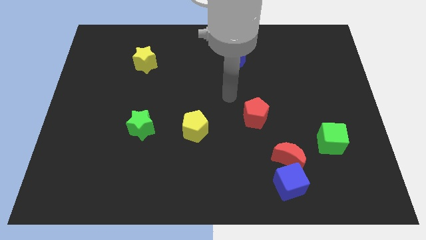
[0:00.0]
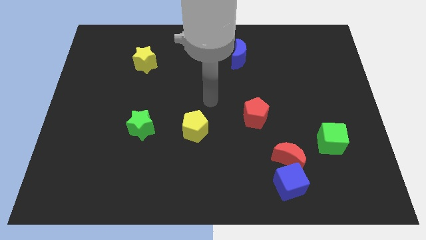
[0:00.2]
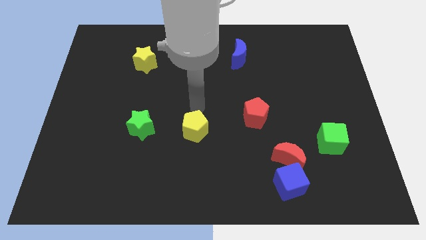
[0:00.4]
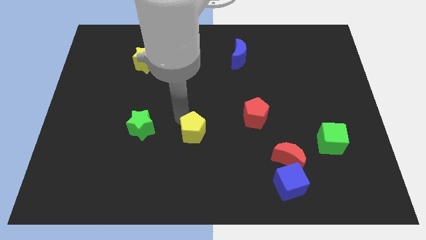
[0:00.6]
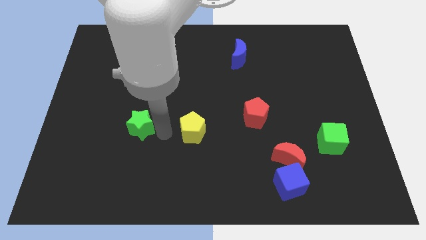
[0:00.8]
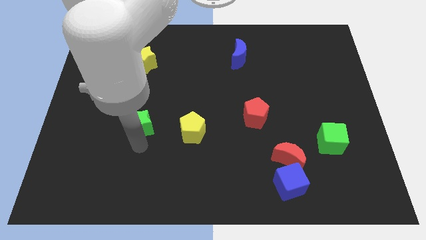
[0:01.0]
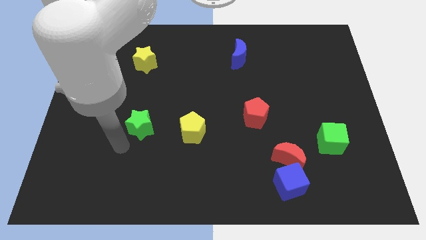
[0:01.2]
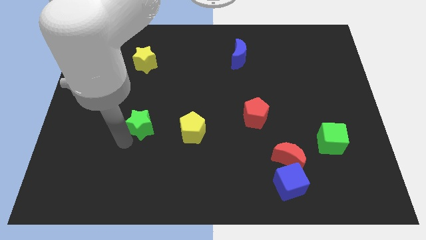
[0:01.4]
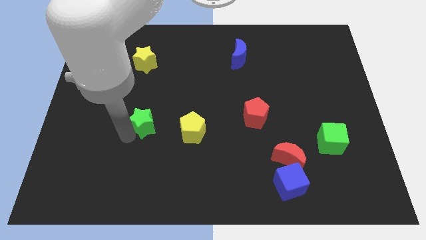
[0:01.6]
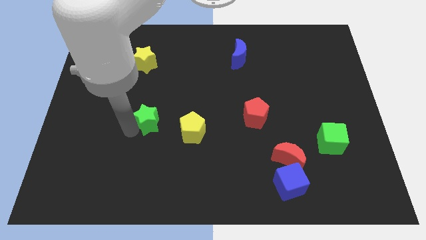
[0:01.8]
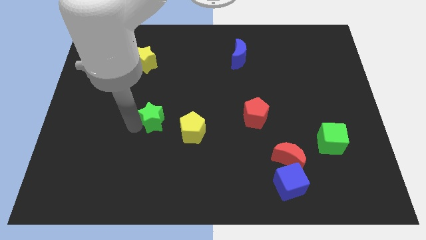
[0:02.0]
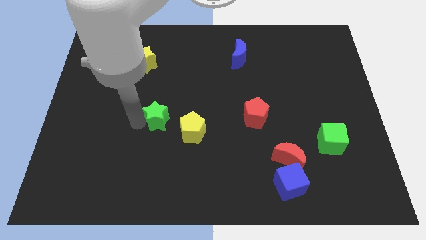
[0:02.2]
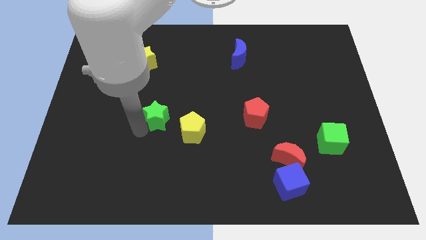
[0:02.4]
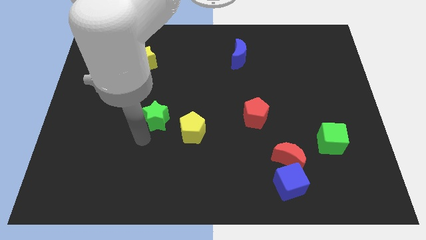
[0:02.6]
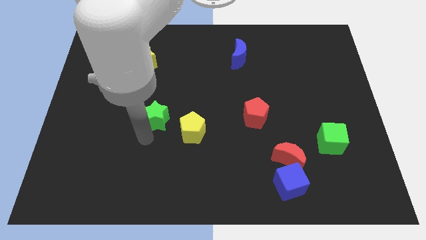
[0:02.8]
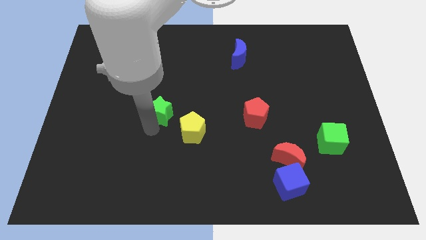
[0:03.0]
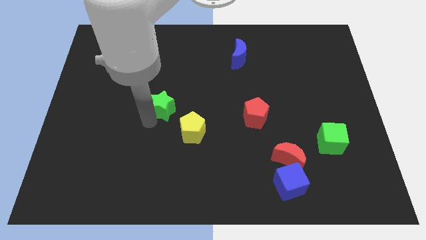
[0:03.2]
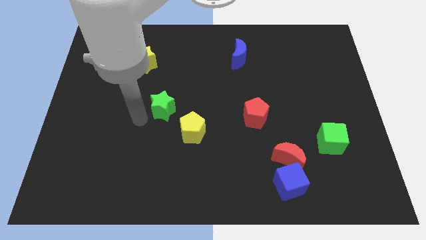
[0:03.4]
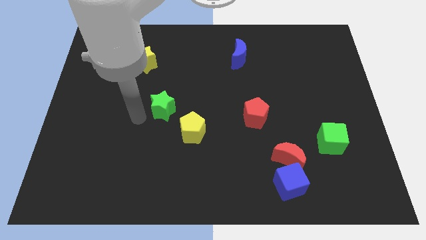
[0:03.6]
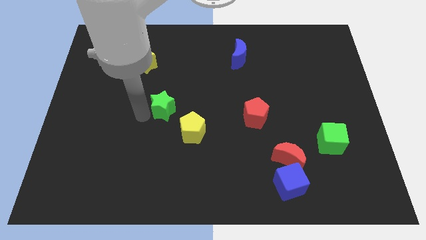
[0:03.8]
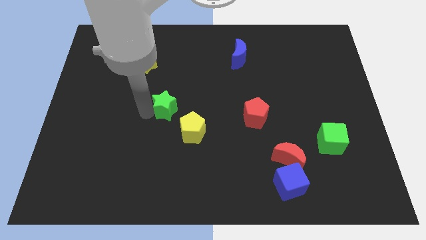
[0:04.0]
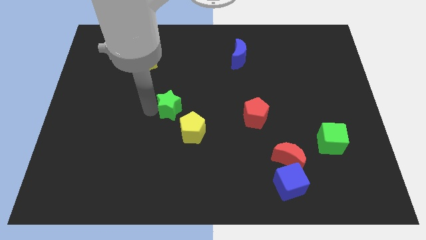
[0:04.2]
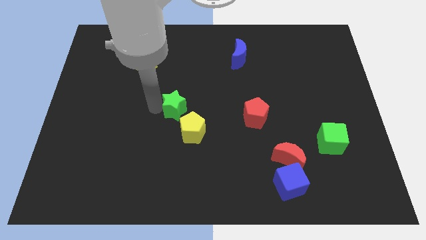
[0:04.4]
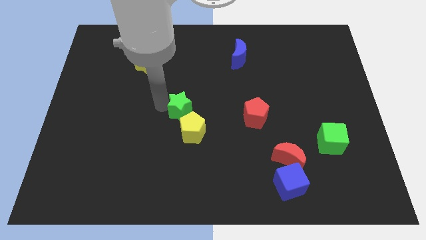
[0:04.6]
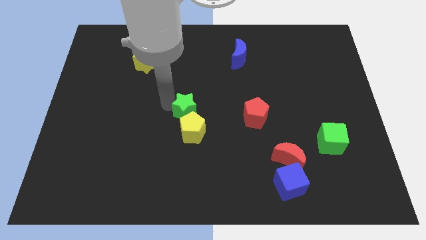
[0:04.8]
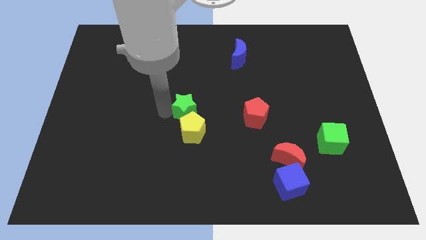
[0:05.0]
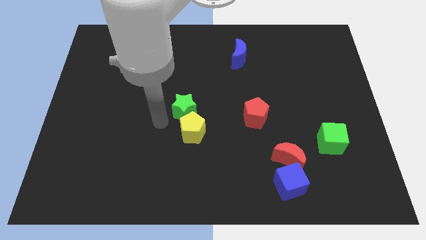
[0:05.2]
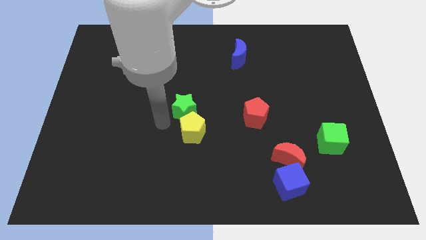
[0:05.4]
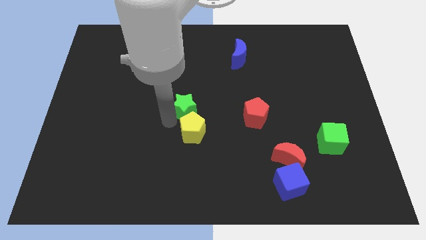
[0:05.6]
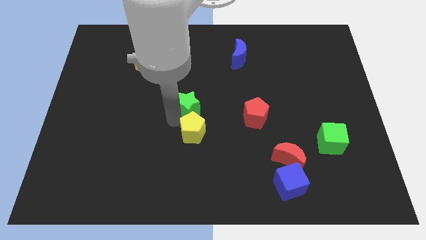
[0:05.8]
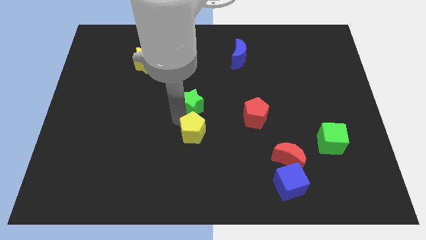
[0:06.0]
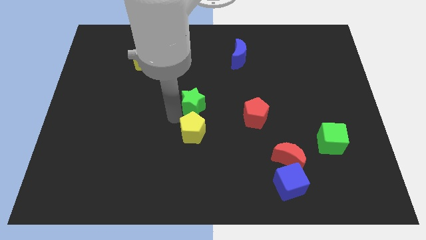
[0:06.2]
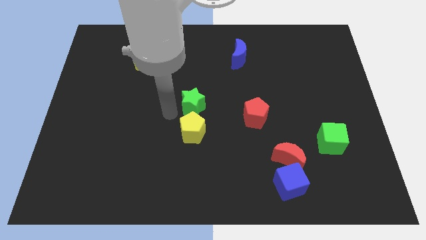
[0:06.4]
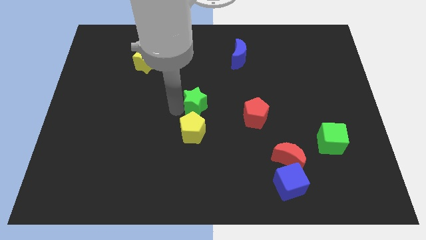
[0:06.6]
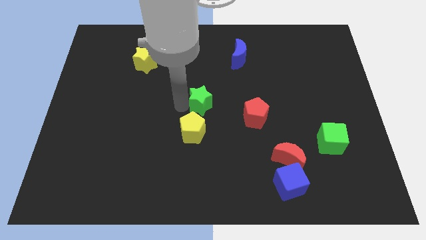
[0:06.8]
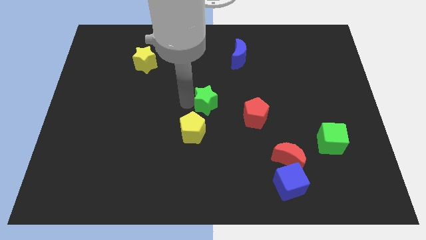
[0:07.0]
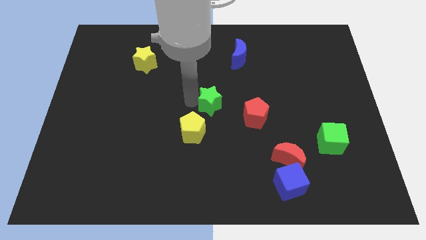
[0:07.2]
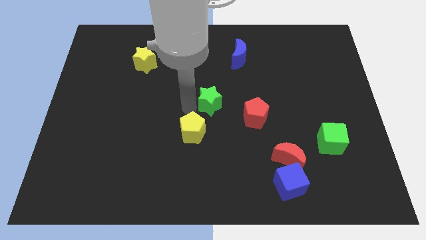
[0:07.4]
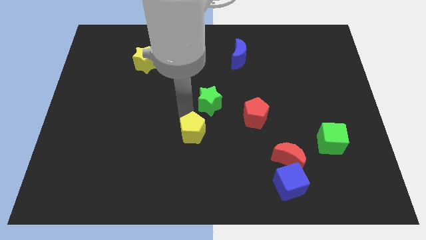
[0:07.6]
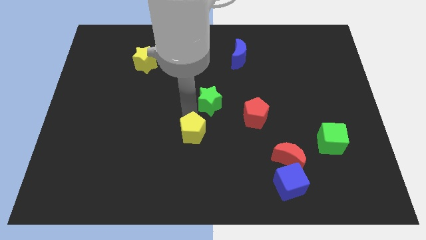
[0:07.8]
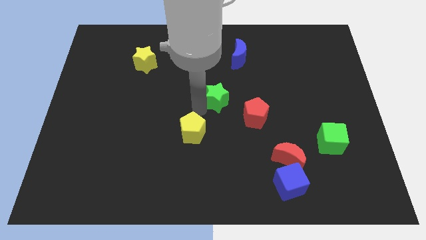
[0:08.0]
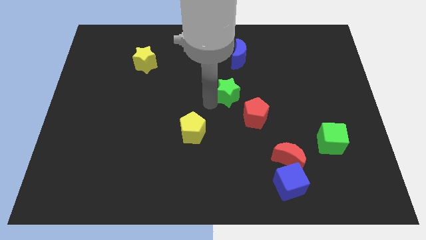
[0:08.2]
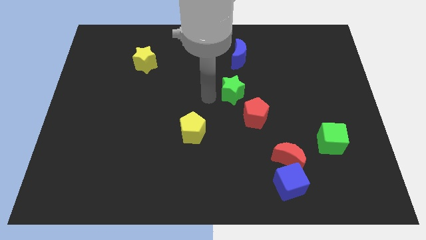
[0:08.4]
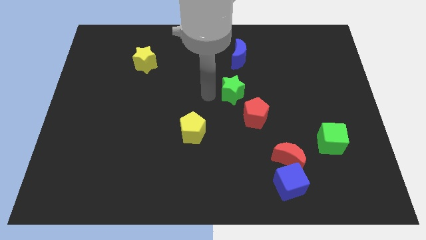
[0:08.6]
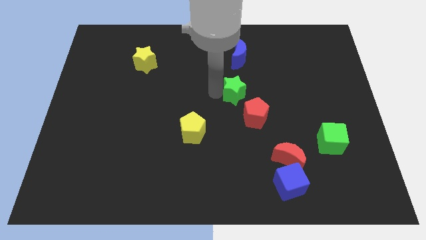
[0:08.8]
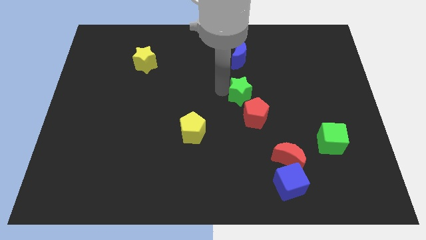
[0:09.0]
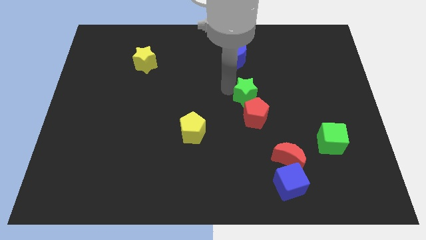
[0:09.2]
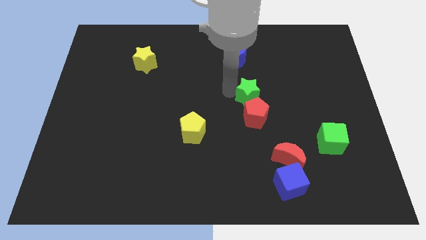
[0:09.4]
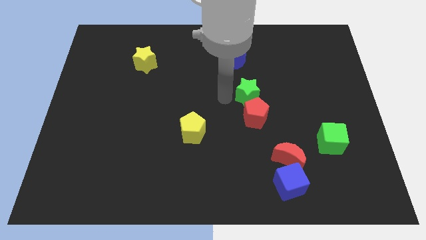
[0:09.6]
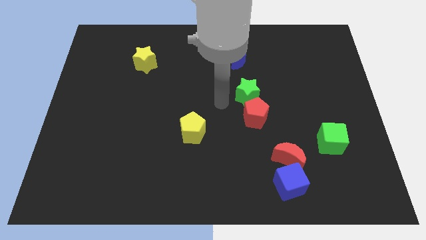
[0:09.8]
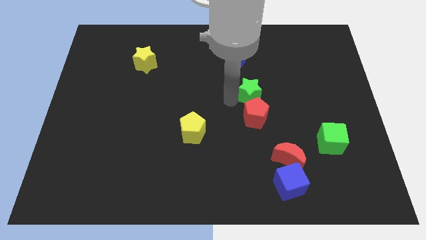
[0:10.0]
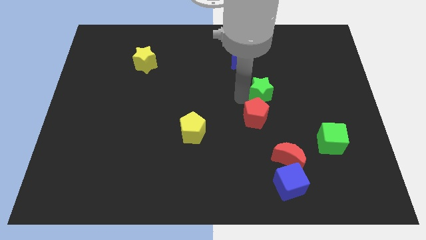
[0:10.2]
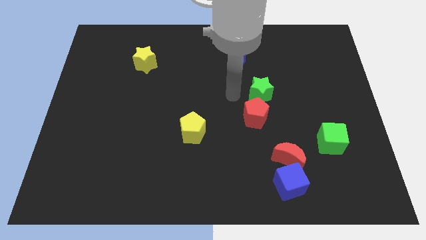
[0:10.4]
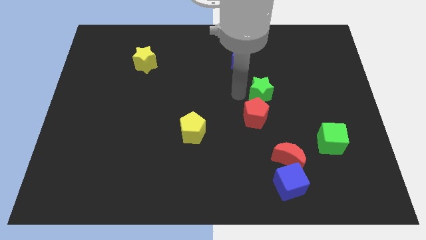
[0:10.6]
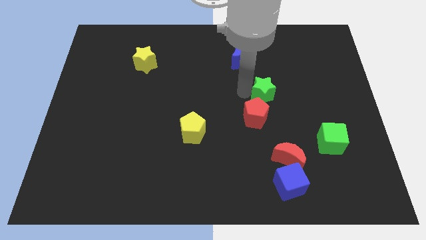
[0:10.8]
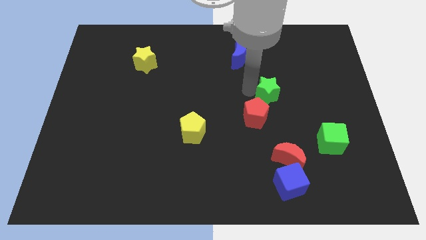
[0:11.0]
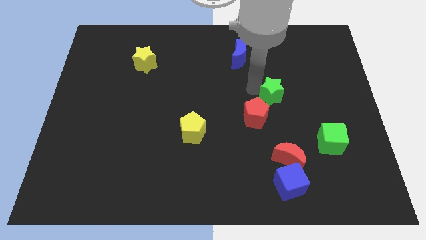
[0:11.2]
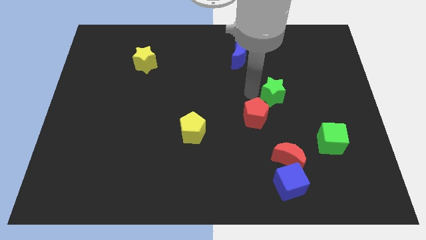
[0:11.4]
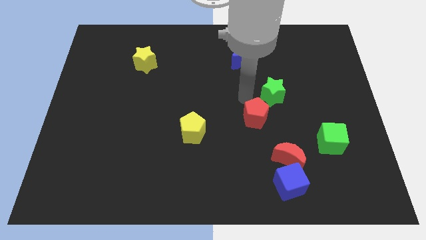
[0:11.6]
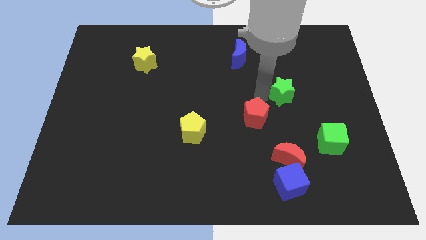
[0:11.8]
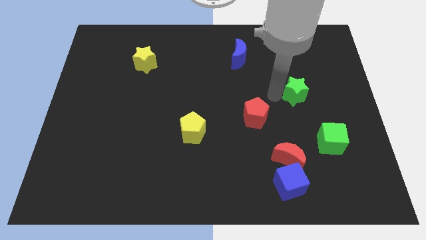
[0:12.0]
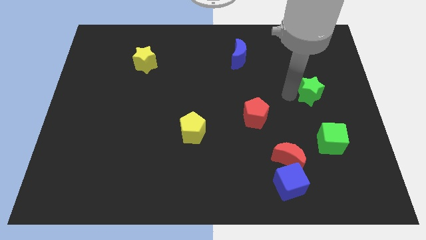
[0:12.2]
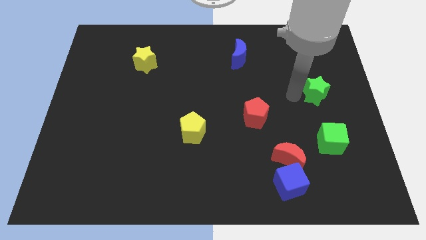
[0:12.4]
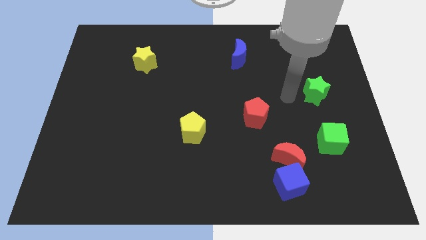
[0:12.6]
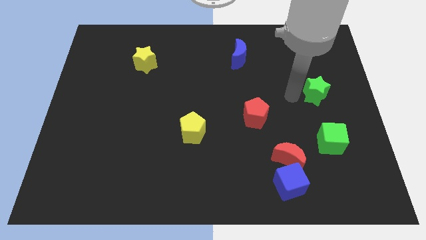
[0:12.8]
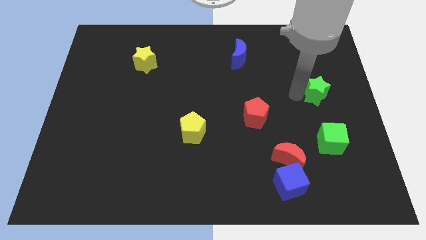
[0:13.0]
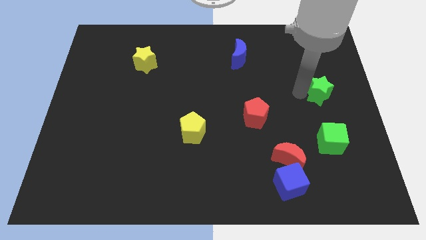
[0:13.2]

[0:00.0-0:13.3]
push the green star to the right side

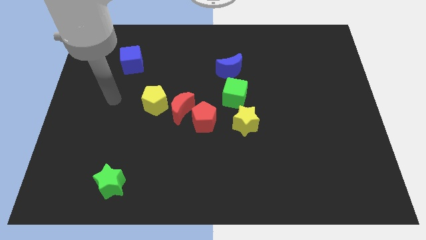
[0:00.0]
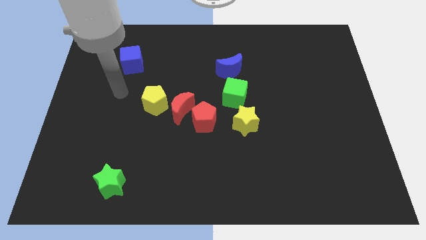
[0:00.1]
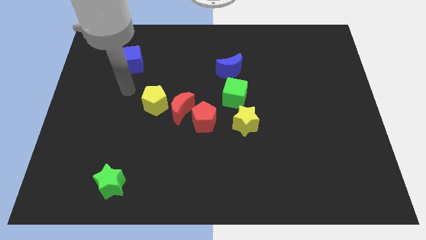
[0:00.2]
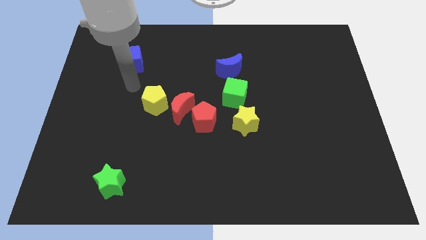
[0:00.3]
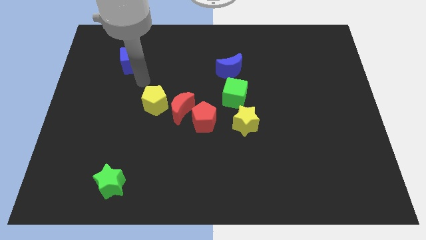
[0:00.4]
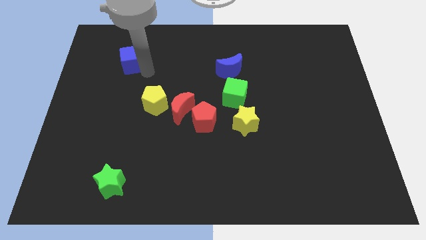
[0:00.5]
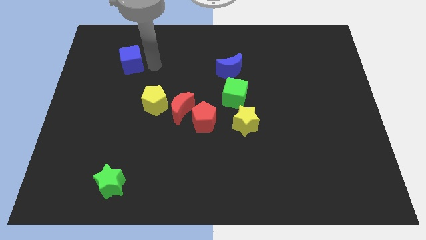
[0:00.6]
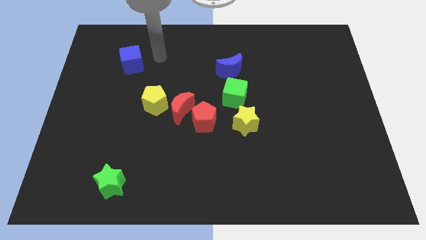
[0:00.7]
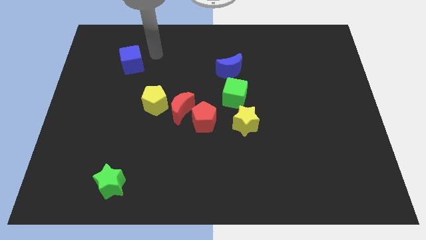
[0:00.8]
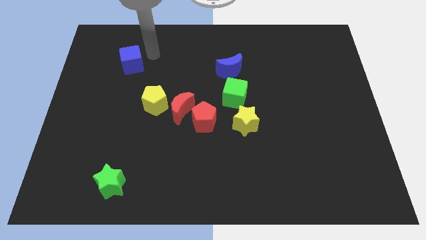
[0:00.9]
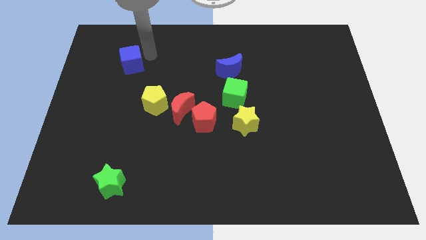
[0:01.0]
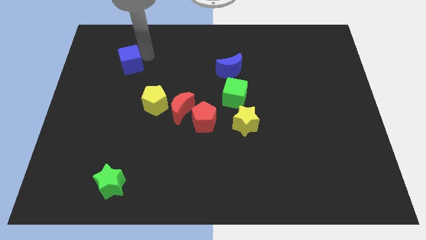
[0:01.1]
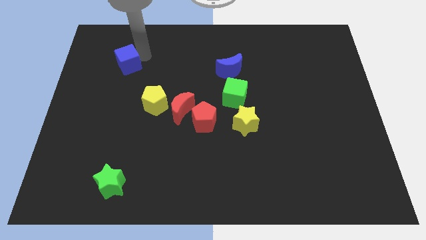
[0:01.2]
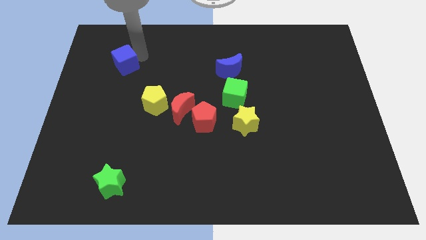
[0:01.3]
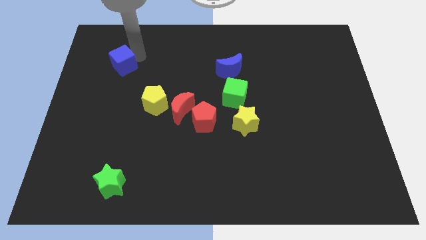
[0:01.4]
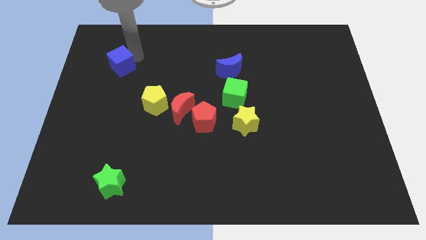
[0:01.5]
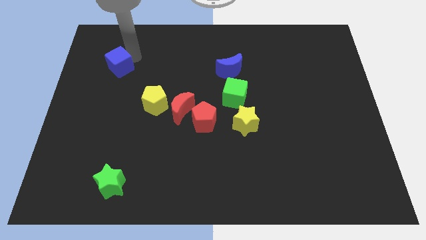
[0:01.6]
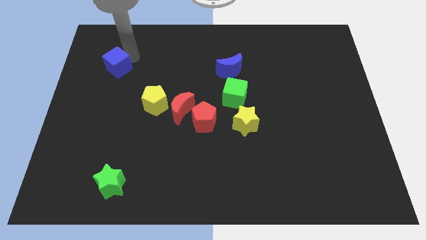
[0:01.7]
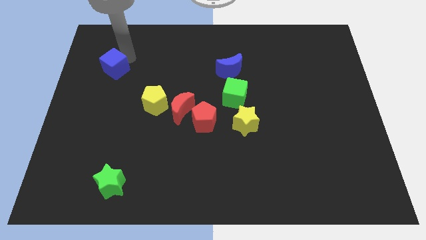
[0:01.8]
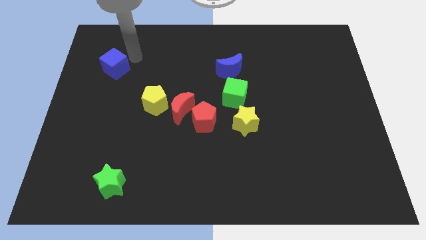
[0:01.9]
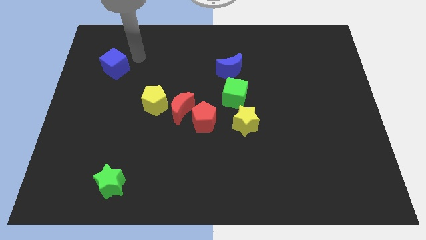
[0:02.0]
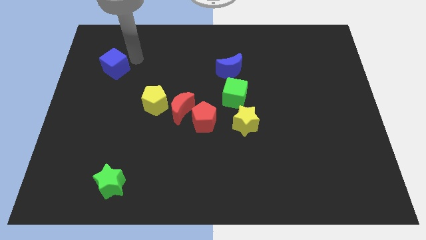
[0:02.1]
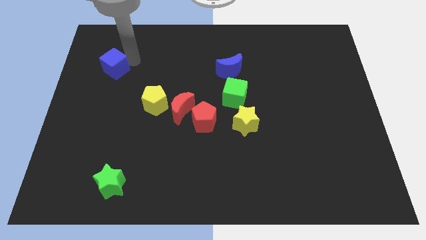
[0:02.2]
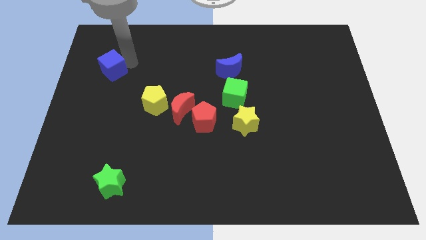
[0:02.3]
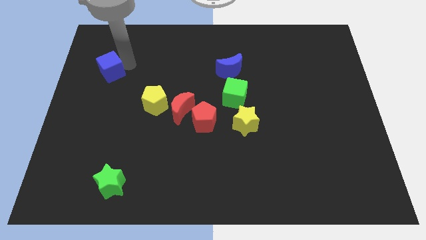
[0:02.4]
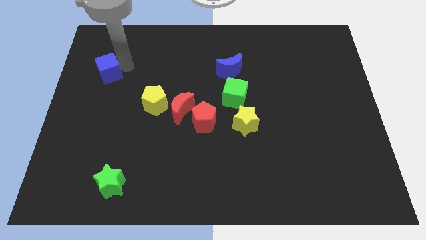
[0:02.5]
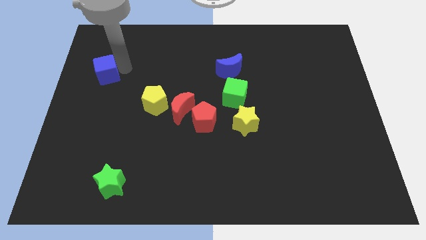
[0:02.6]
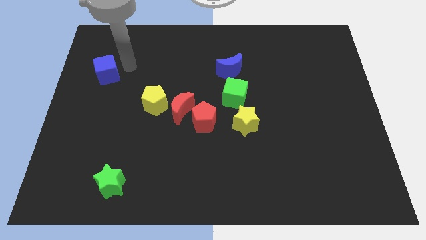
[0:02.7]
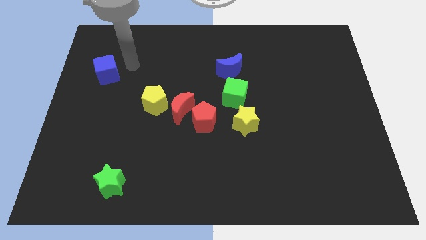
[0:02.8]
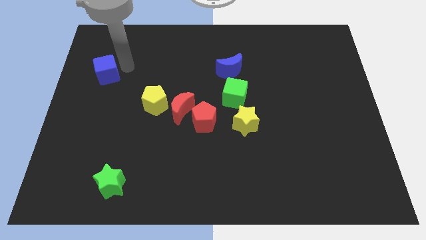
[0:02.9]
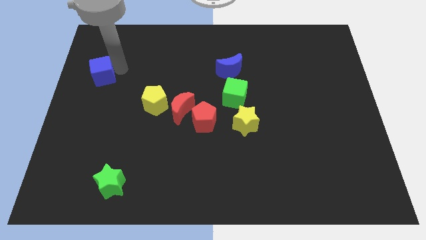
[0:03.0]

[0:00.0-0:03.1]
move the blue cube to the left side
